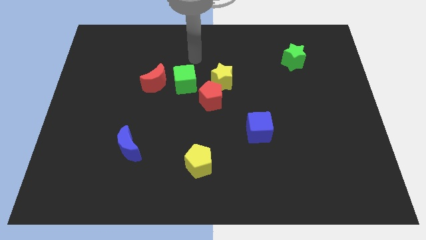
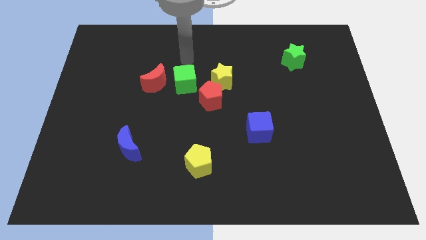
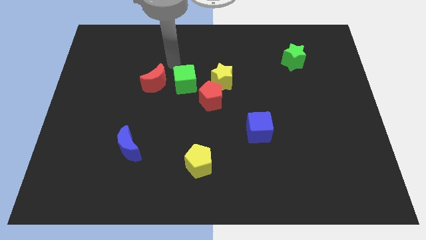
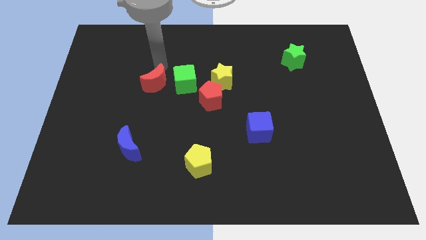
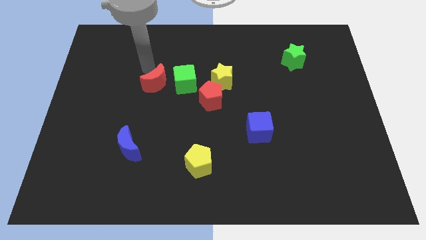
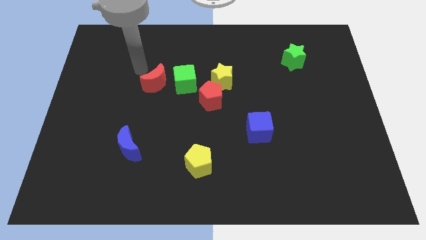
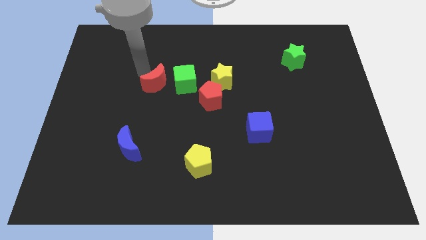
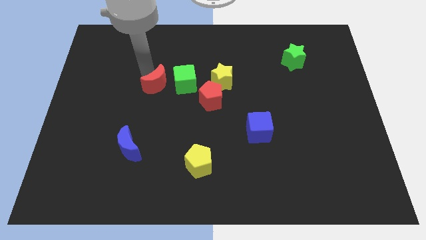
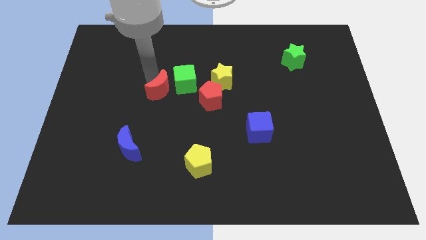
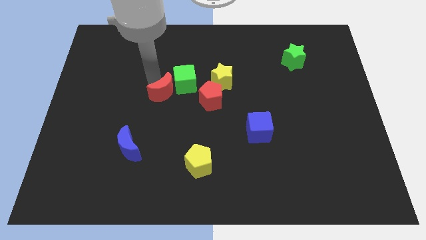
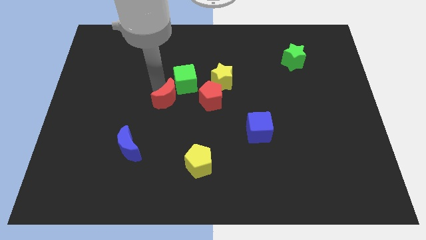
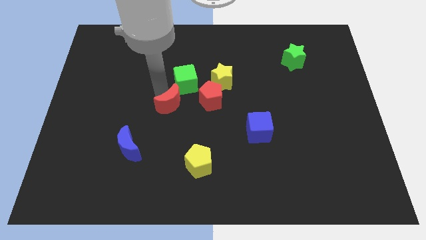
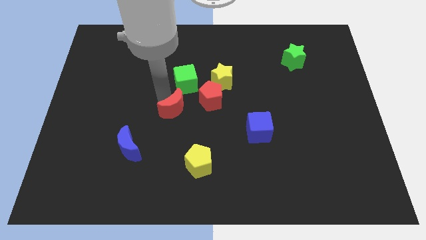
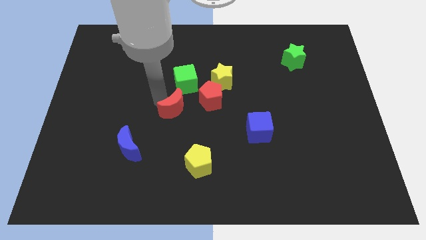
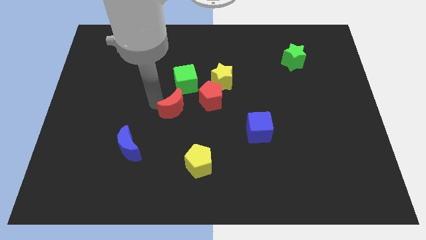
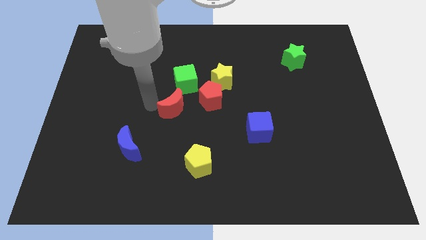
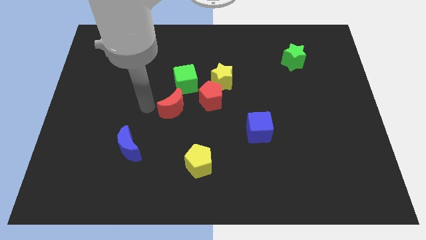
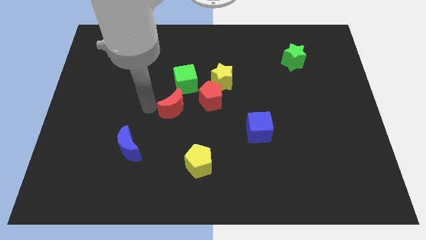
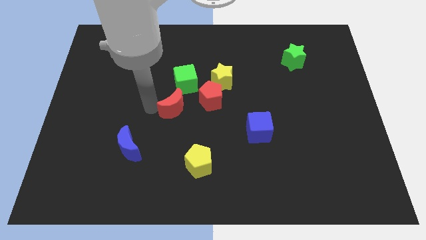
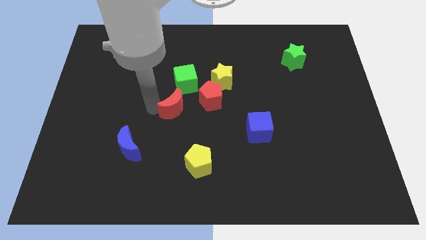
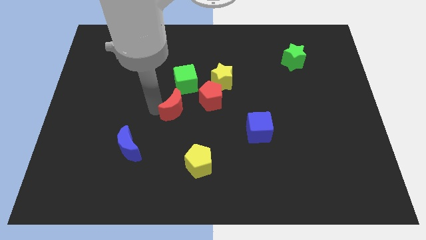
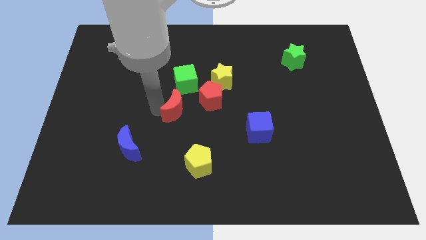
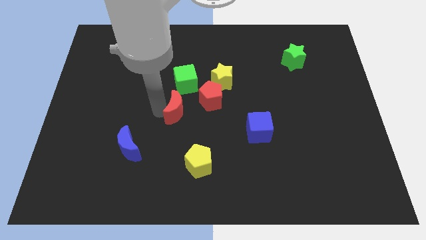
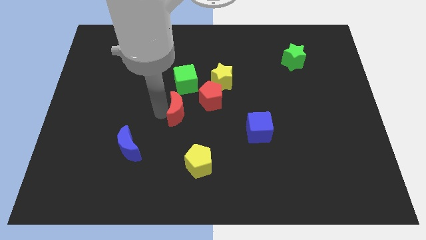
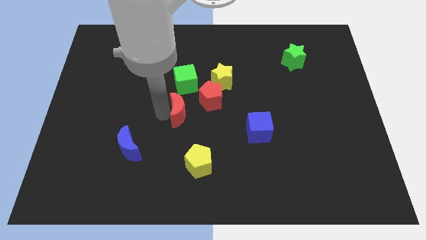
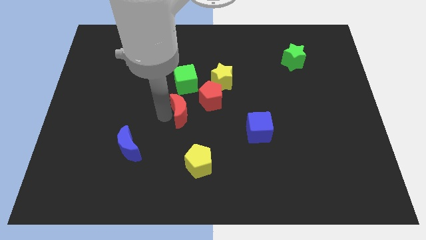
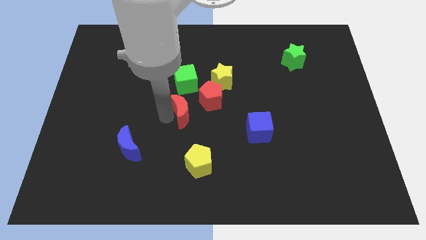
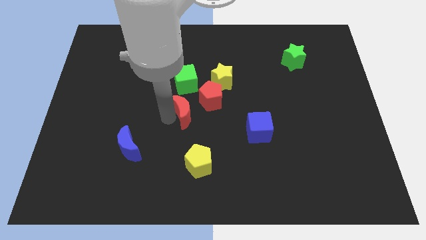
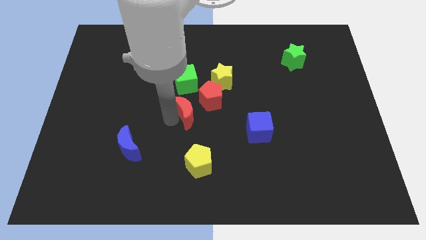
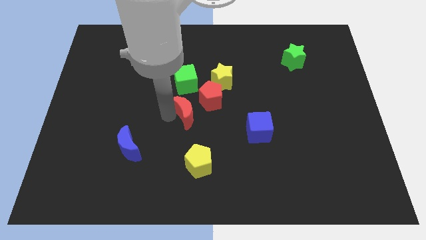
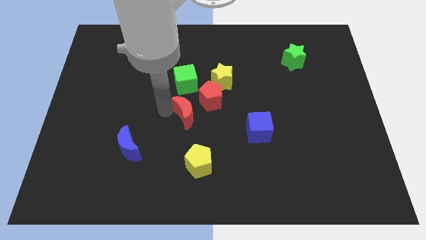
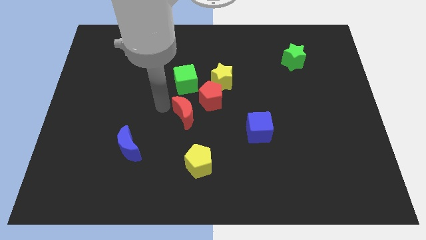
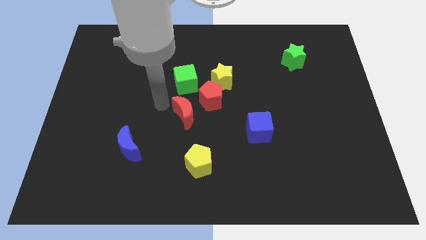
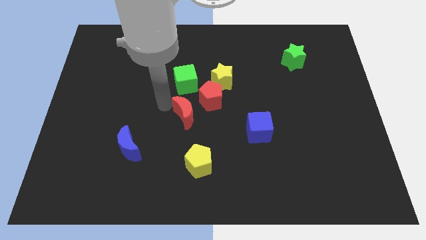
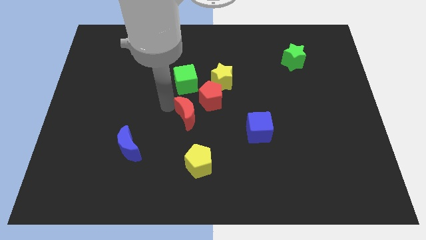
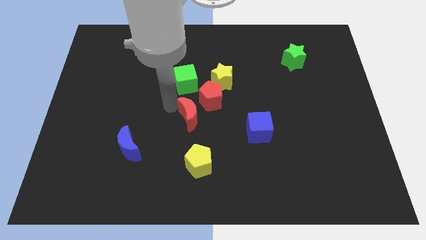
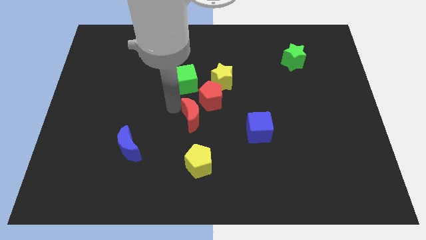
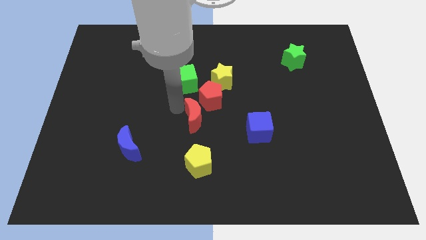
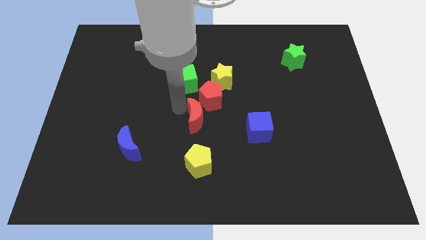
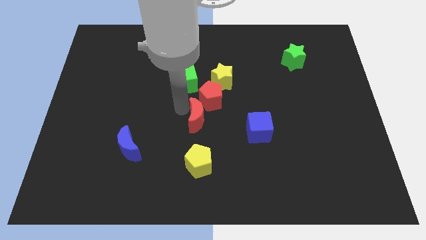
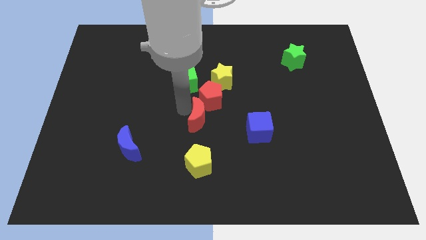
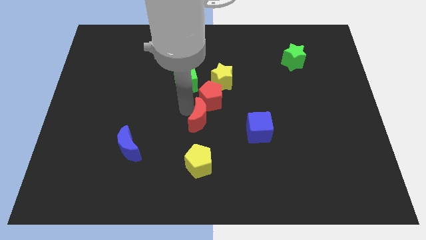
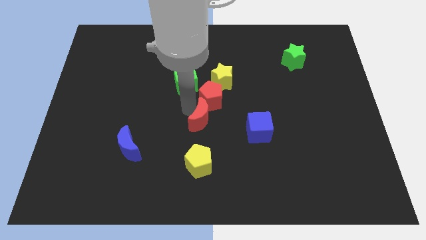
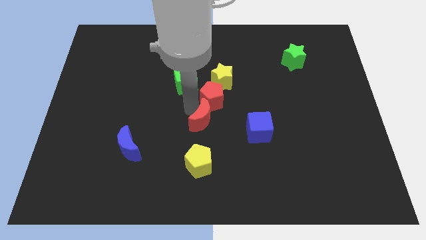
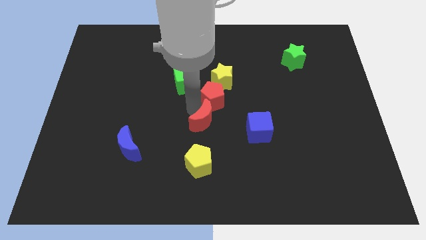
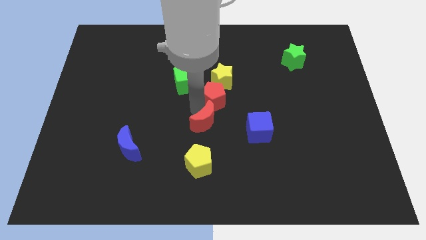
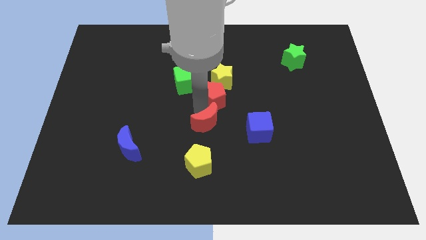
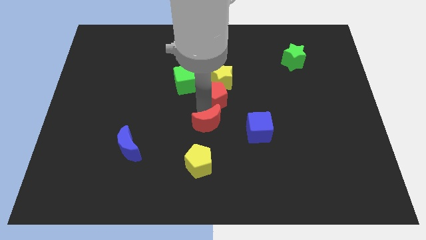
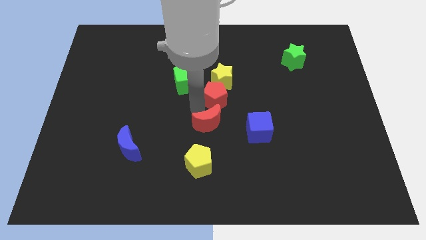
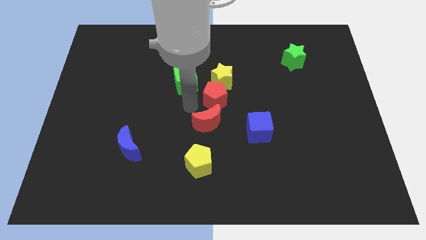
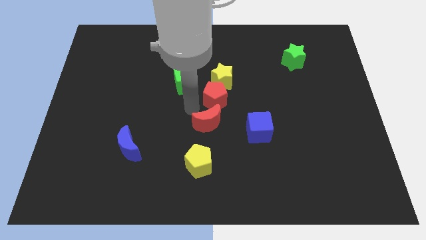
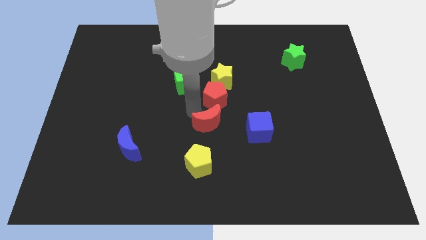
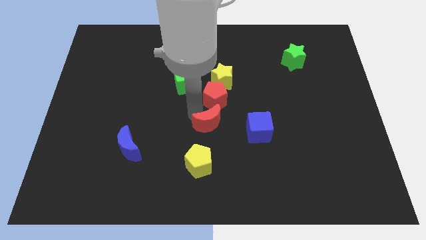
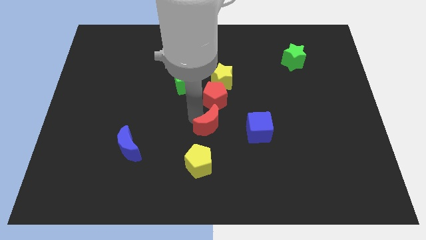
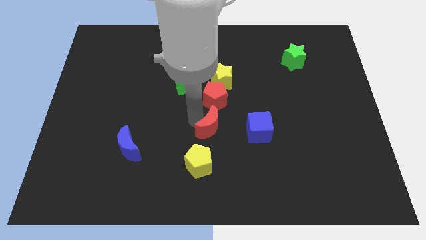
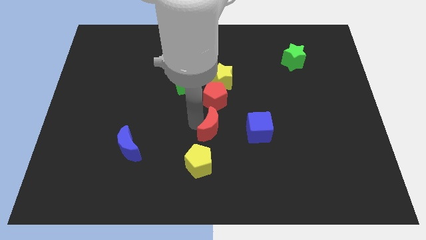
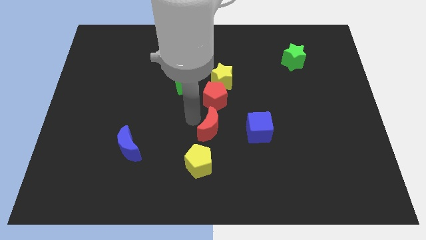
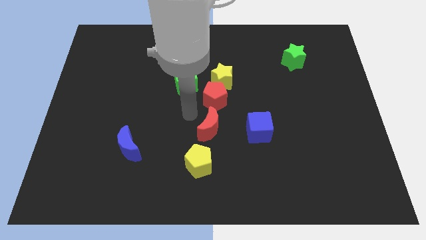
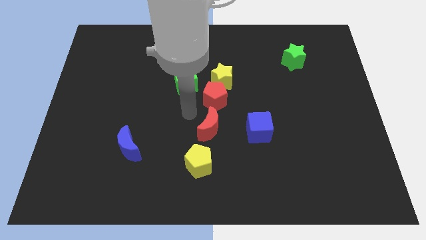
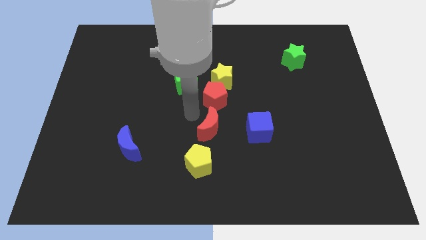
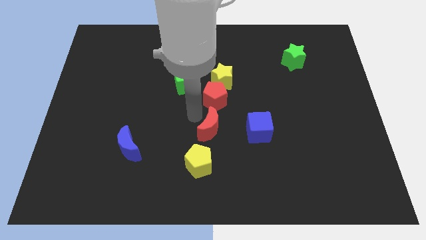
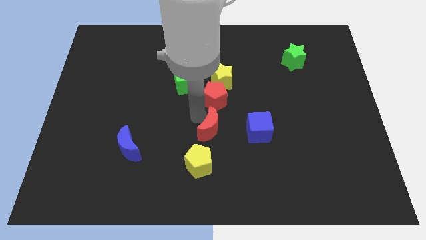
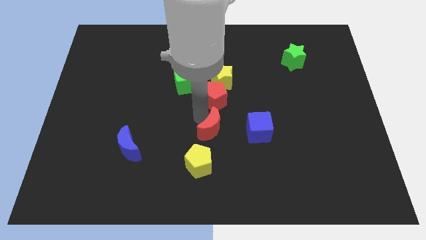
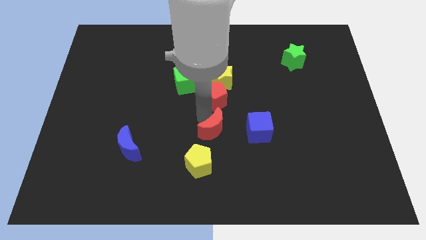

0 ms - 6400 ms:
slide the red moon down and then right

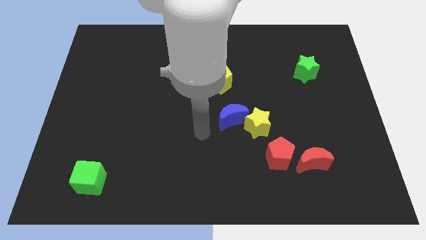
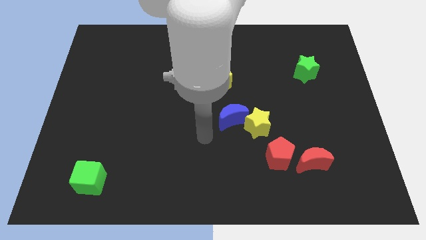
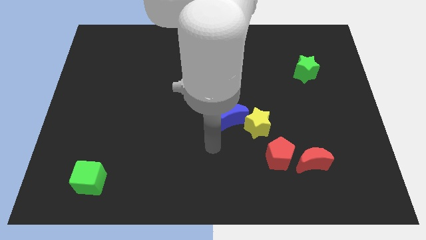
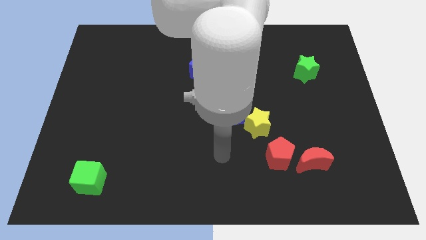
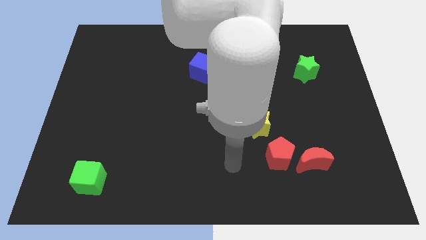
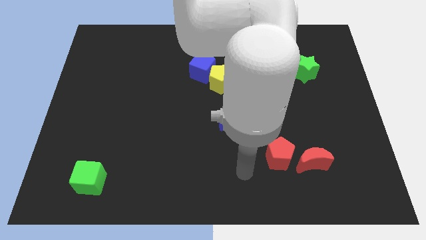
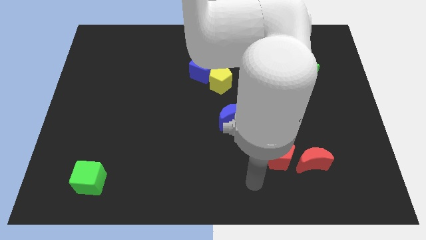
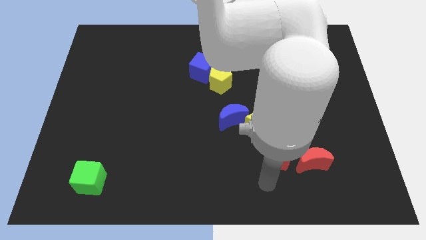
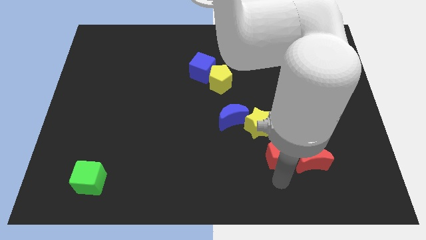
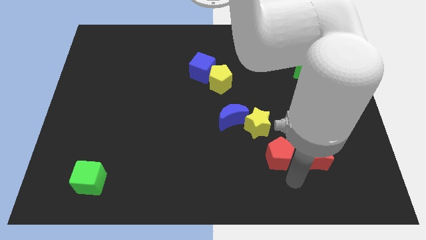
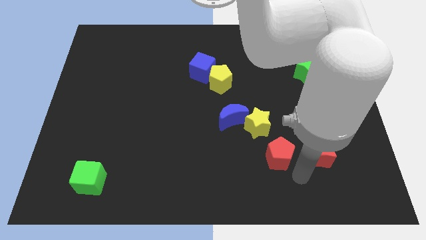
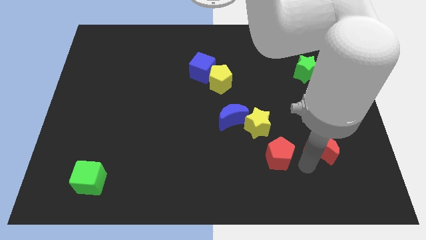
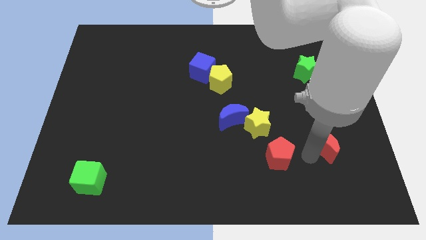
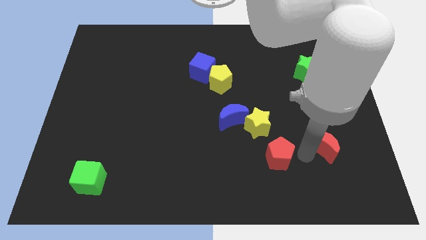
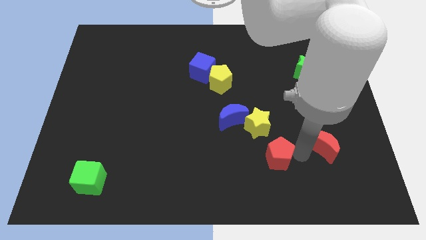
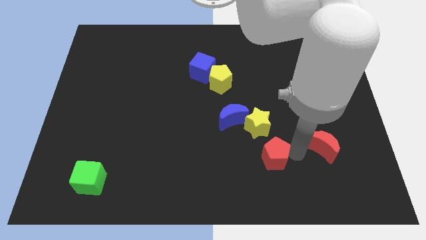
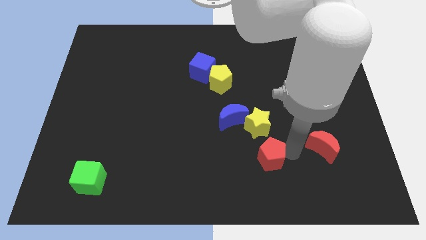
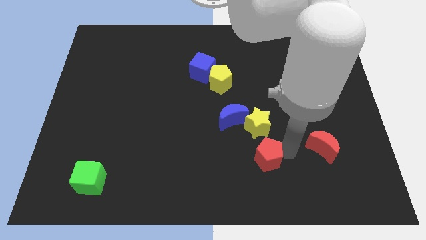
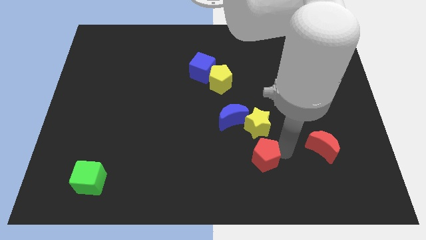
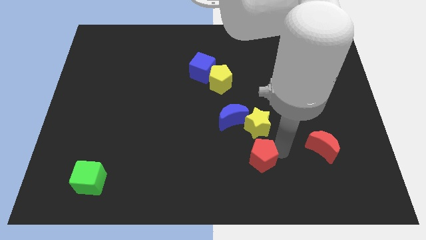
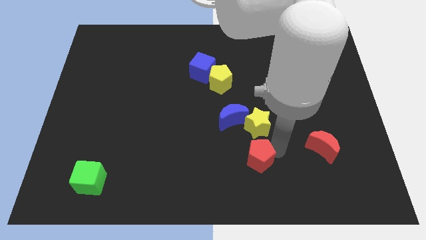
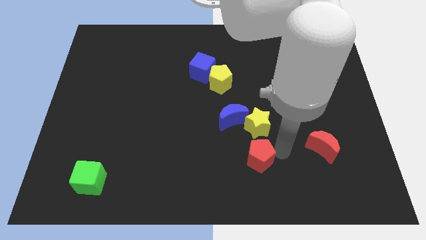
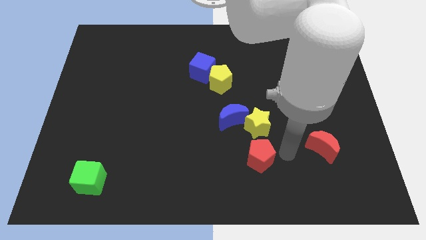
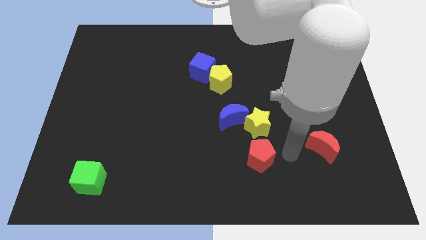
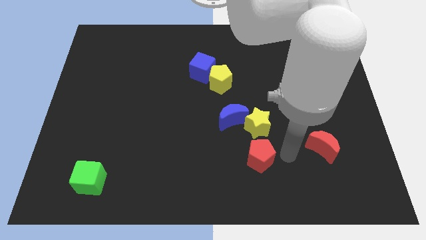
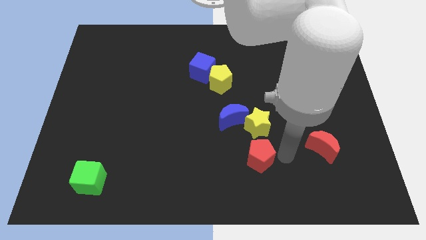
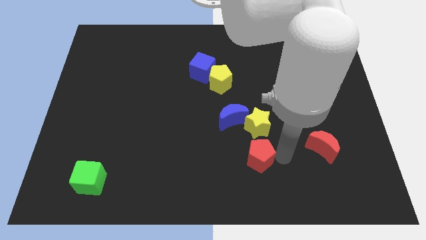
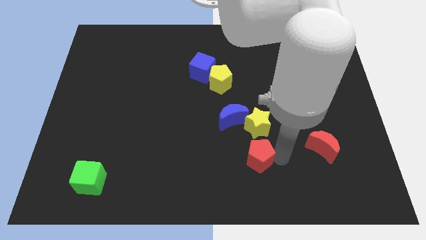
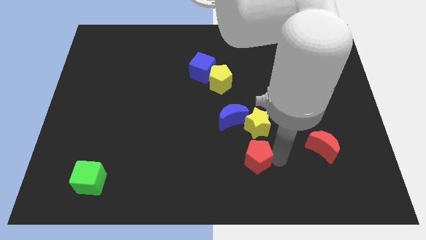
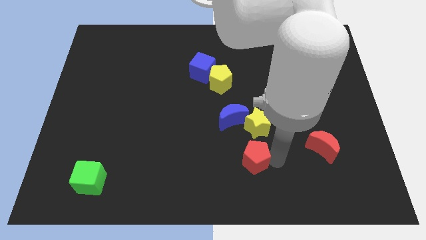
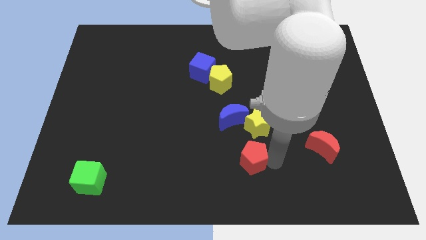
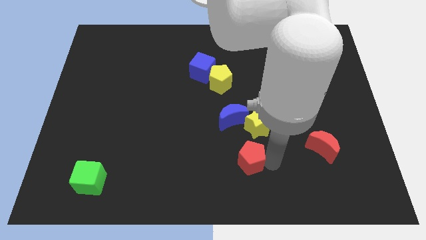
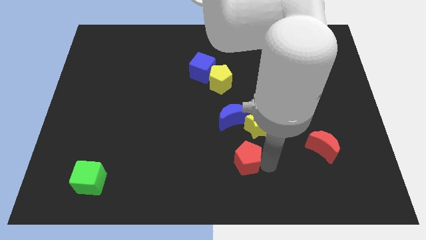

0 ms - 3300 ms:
slightly slide the red pentagon to the left
